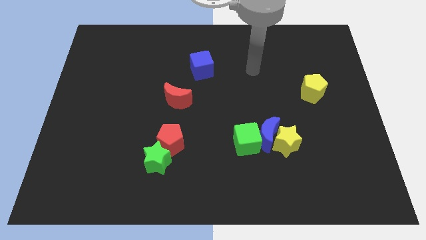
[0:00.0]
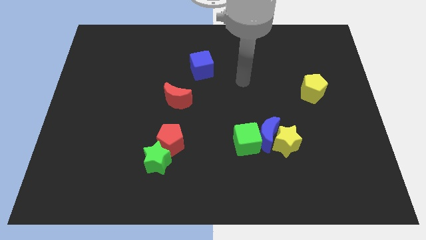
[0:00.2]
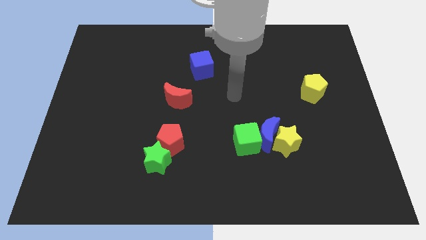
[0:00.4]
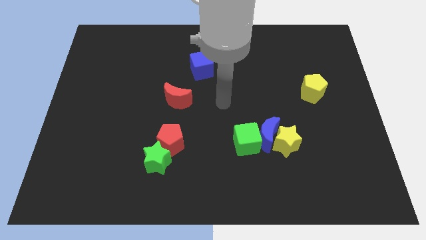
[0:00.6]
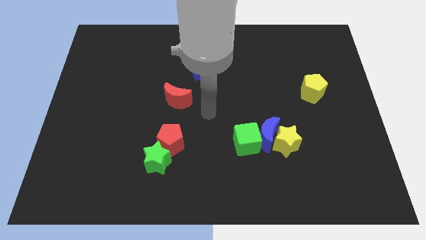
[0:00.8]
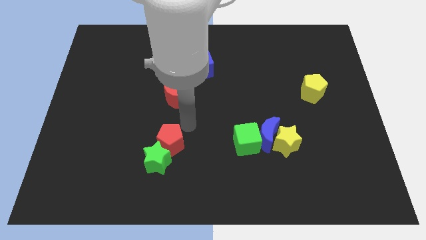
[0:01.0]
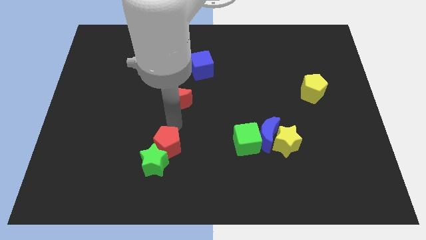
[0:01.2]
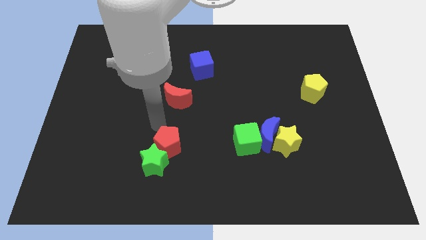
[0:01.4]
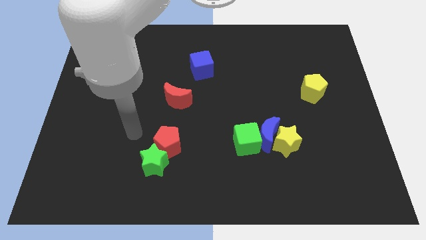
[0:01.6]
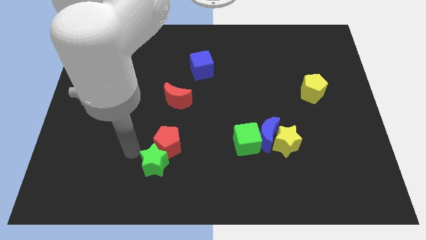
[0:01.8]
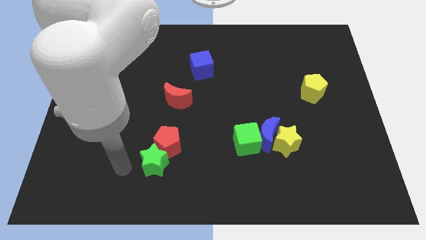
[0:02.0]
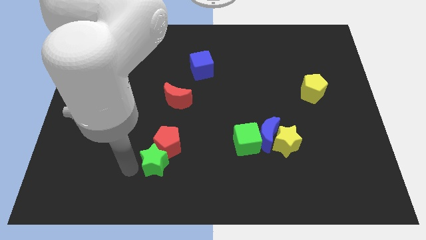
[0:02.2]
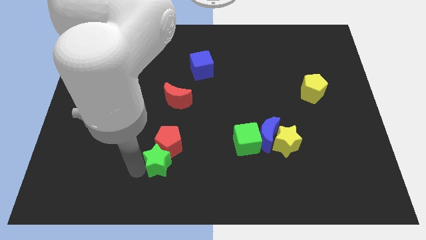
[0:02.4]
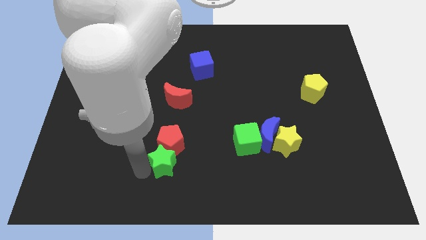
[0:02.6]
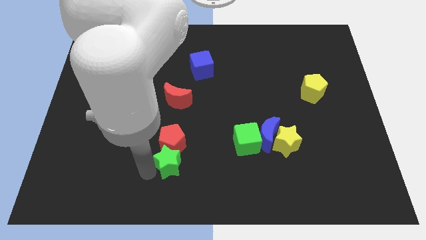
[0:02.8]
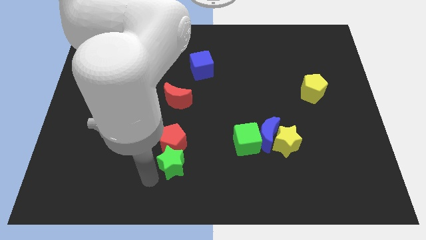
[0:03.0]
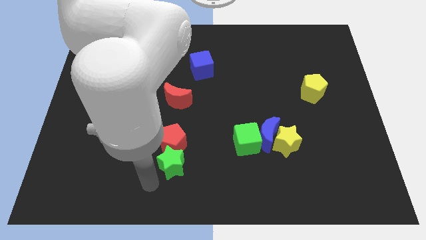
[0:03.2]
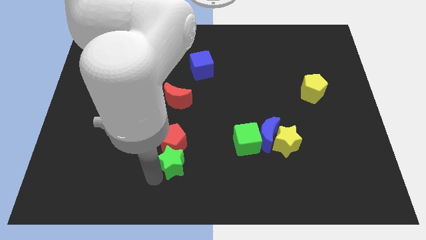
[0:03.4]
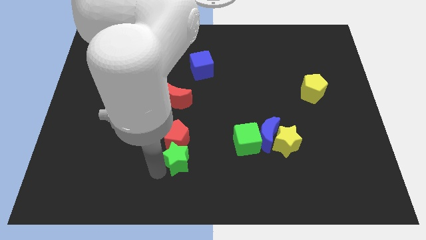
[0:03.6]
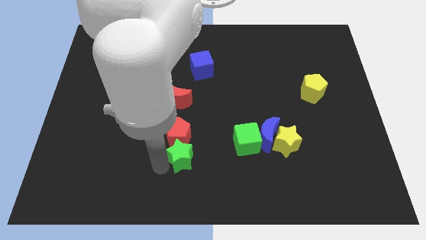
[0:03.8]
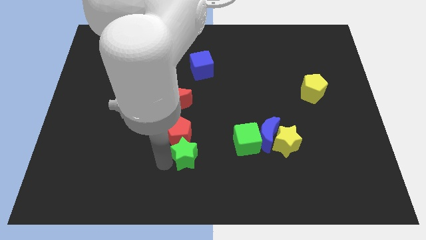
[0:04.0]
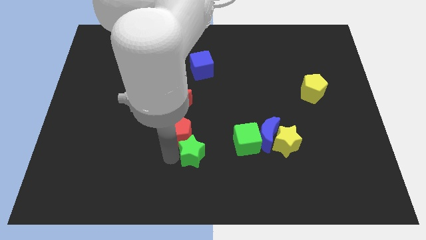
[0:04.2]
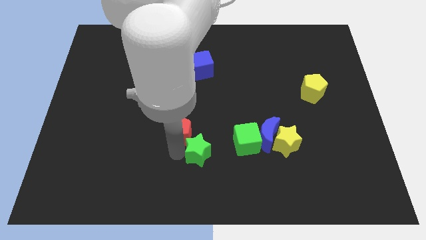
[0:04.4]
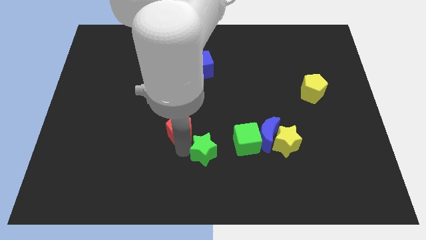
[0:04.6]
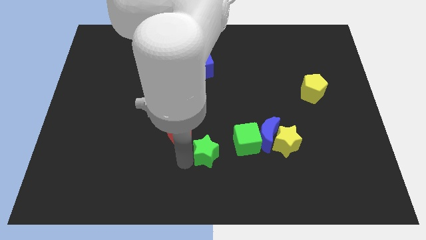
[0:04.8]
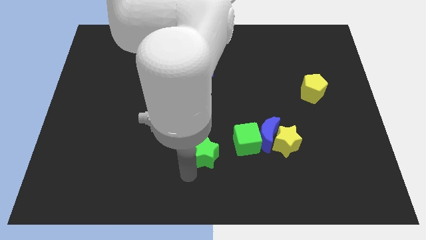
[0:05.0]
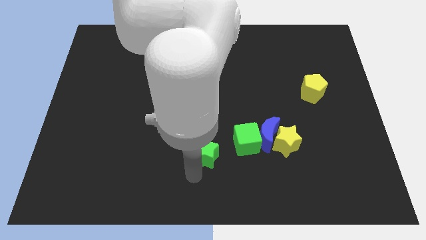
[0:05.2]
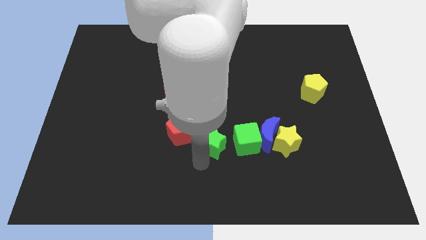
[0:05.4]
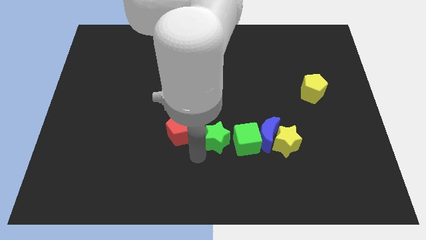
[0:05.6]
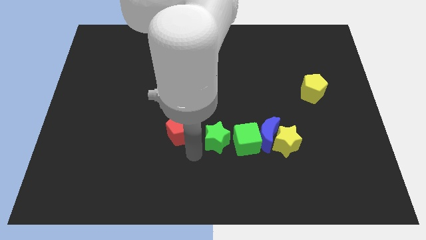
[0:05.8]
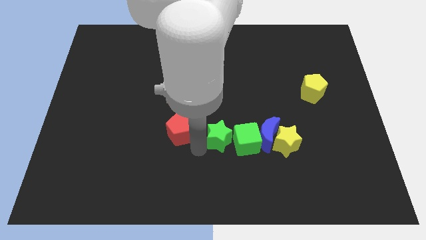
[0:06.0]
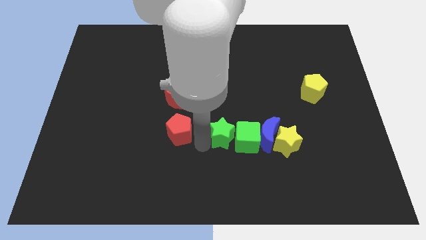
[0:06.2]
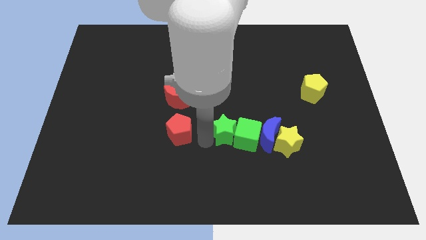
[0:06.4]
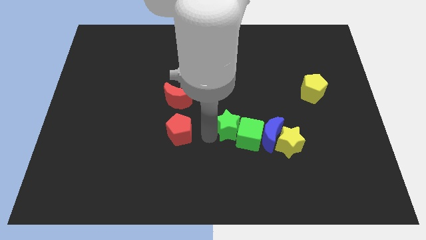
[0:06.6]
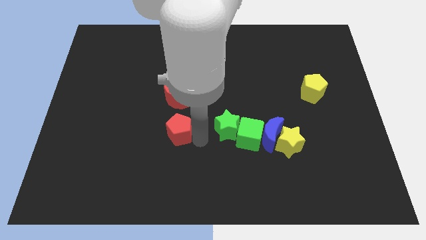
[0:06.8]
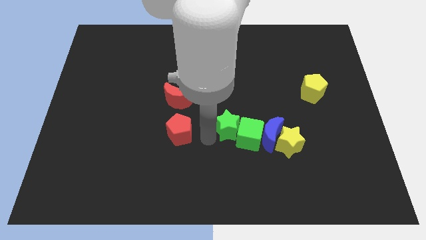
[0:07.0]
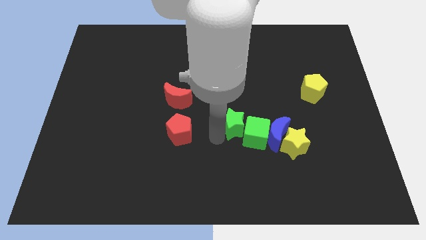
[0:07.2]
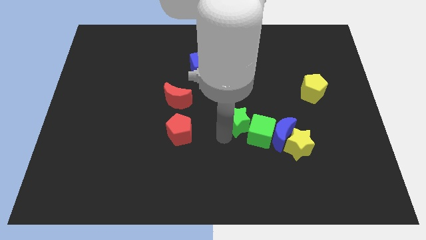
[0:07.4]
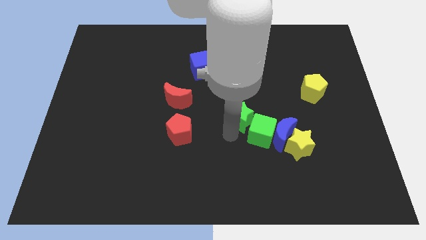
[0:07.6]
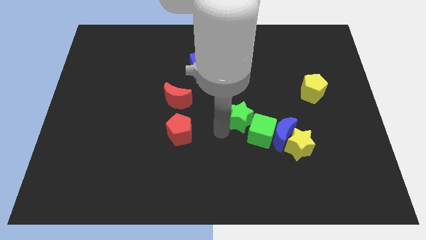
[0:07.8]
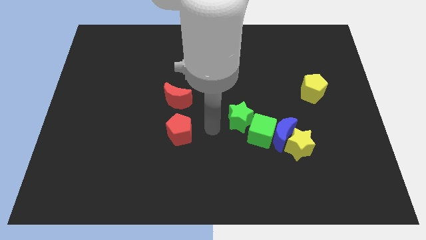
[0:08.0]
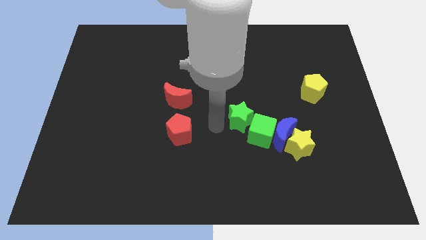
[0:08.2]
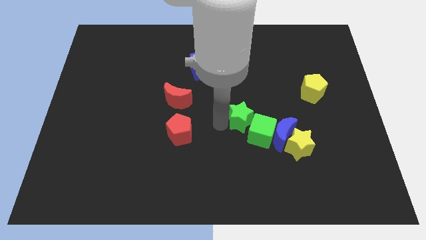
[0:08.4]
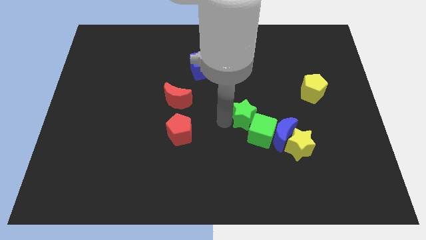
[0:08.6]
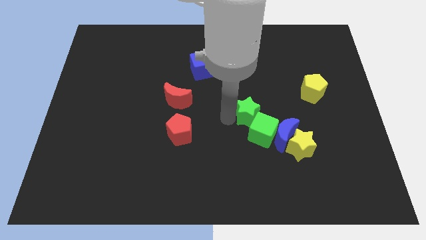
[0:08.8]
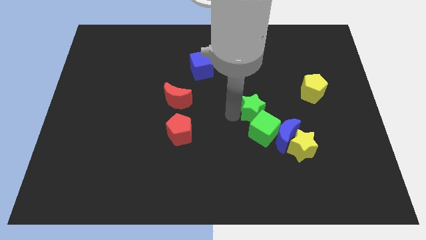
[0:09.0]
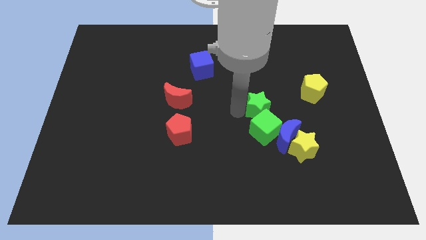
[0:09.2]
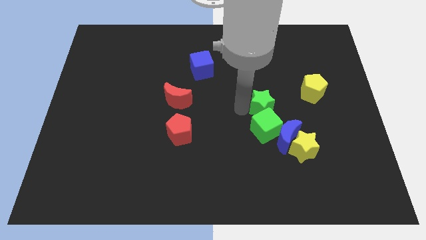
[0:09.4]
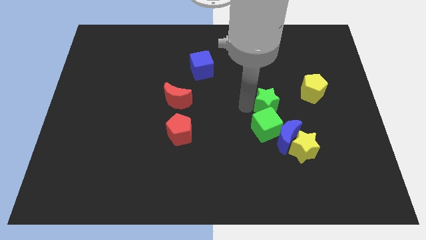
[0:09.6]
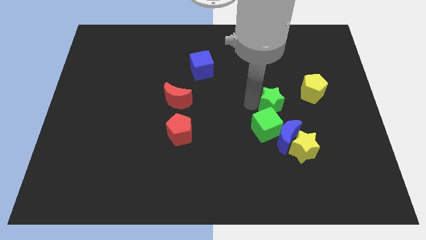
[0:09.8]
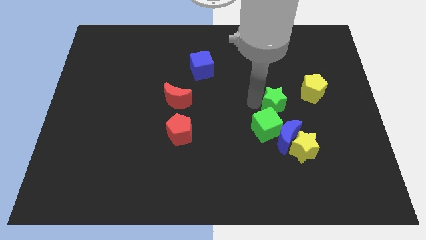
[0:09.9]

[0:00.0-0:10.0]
push the green star to the bottom left side of the yellow pentagon

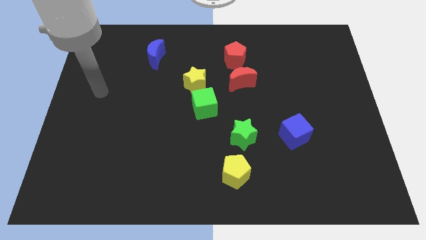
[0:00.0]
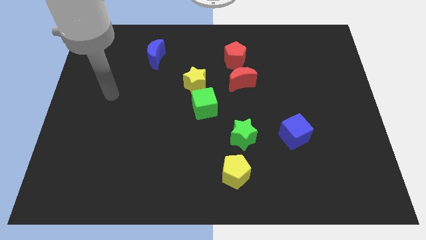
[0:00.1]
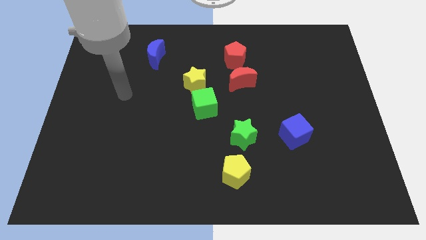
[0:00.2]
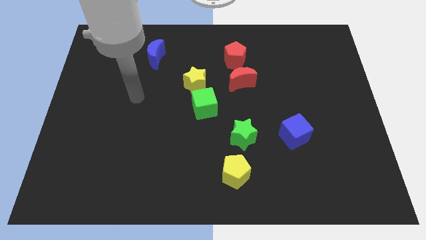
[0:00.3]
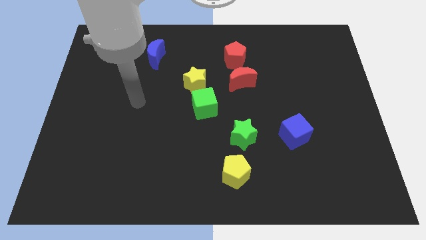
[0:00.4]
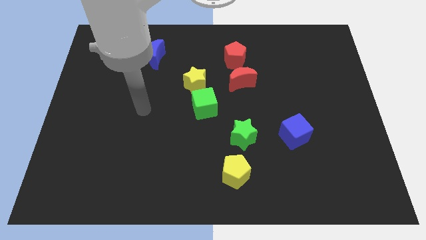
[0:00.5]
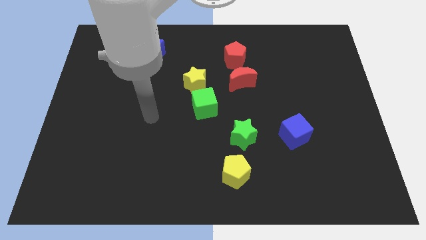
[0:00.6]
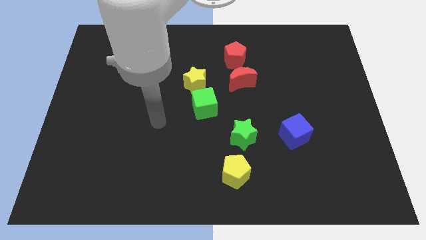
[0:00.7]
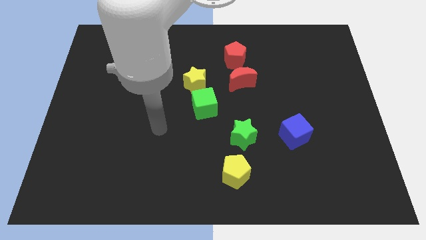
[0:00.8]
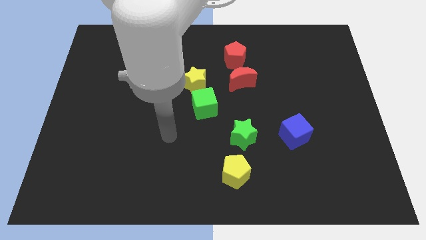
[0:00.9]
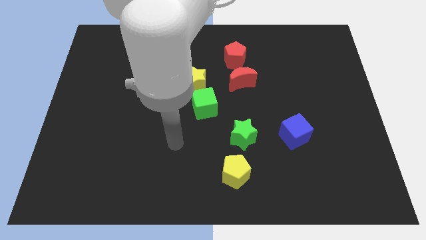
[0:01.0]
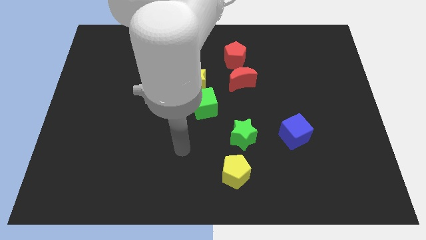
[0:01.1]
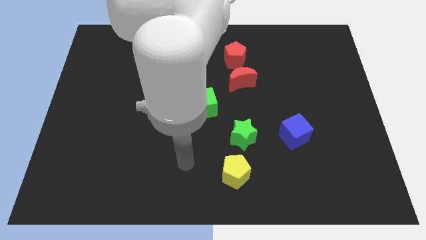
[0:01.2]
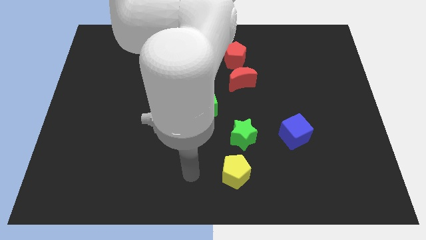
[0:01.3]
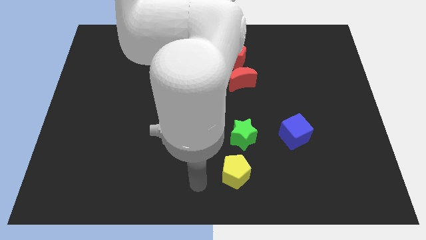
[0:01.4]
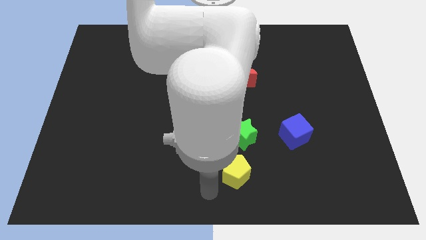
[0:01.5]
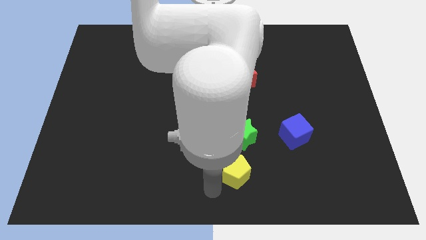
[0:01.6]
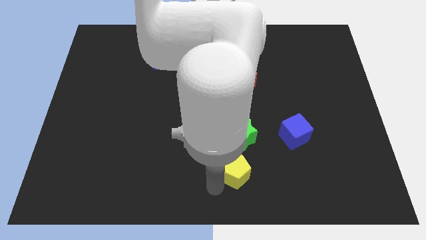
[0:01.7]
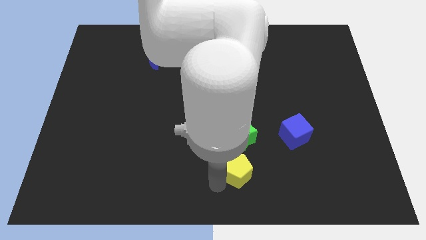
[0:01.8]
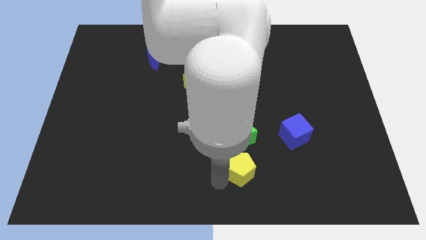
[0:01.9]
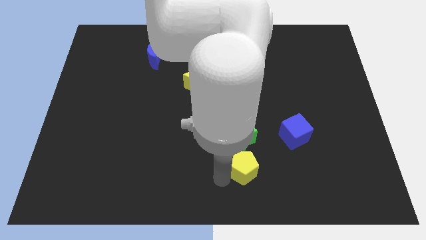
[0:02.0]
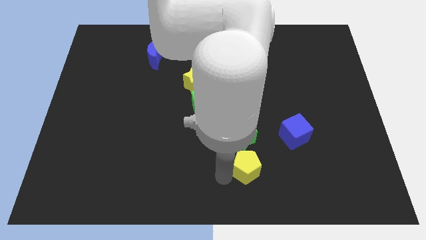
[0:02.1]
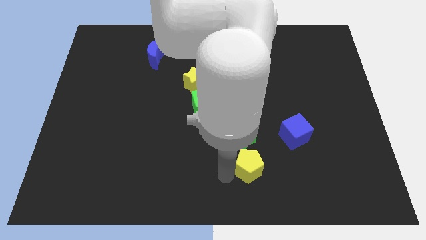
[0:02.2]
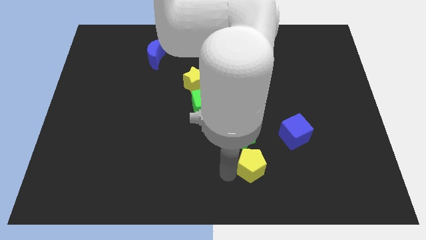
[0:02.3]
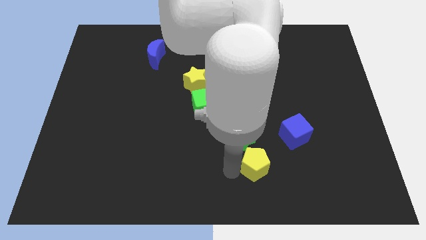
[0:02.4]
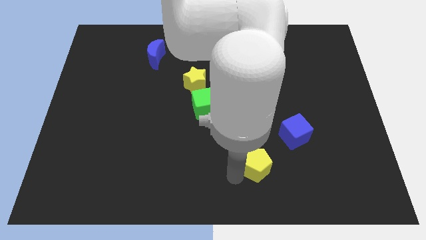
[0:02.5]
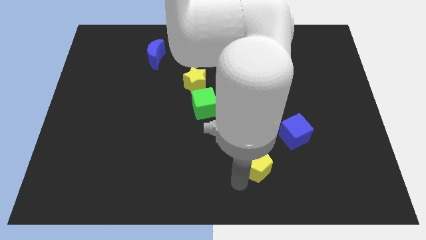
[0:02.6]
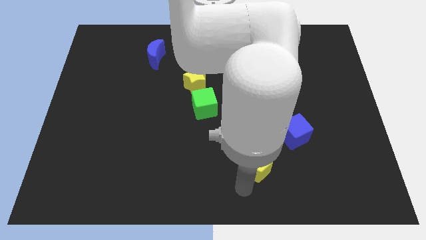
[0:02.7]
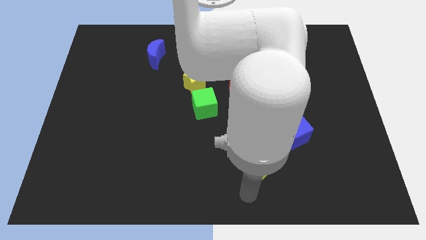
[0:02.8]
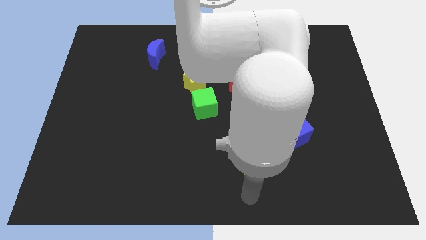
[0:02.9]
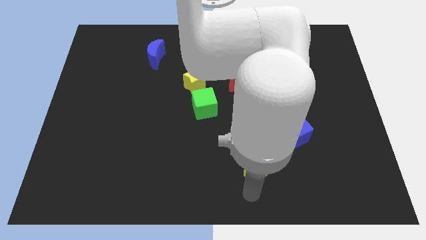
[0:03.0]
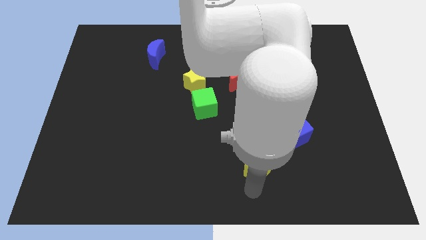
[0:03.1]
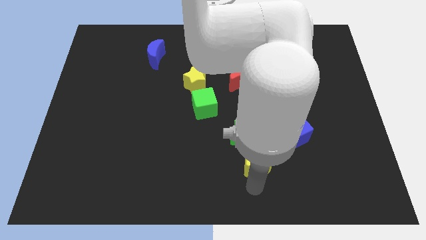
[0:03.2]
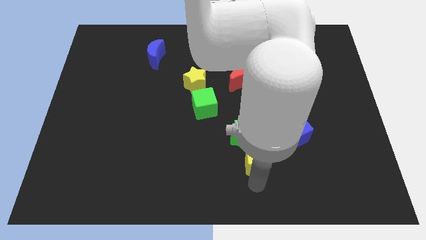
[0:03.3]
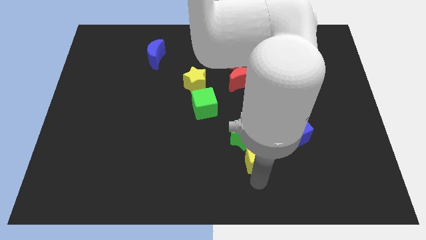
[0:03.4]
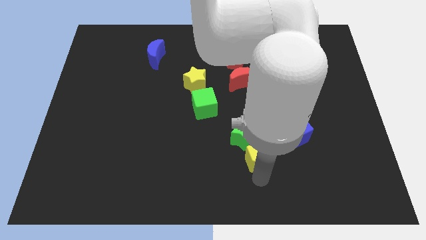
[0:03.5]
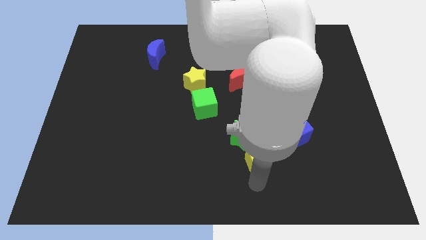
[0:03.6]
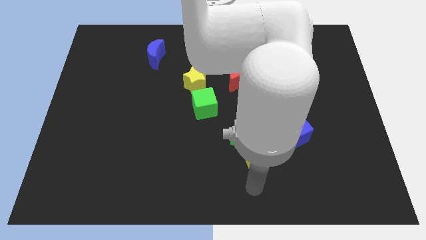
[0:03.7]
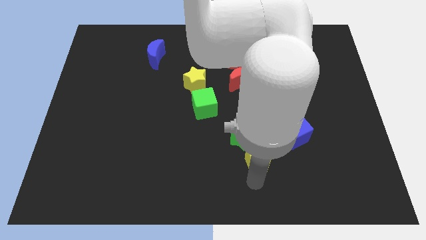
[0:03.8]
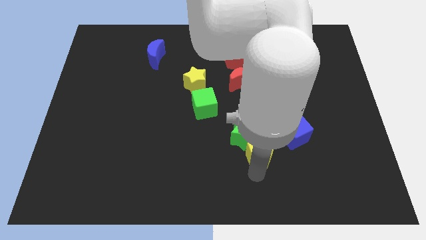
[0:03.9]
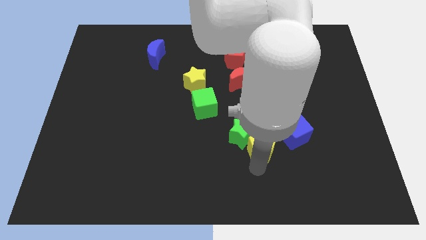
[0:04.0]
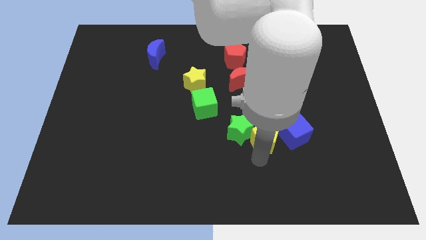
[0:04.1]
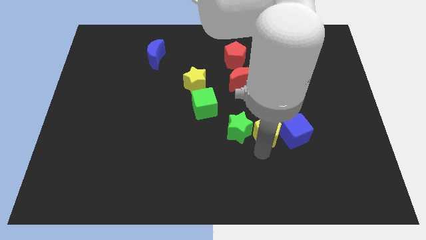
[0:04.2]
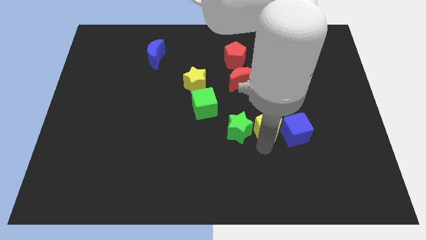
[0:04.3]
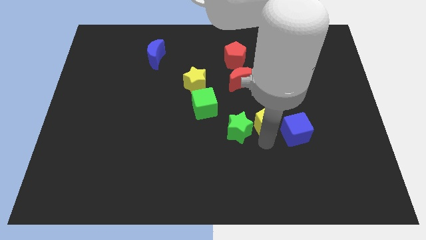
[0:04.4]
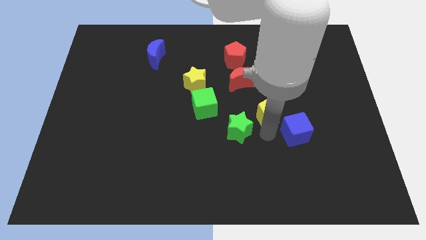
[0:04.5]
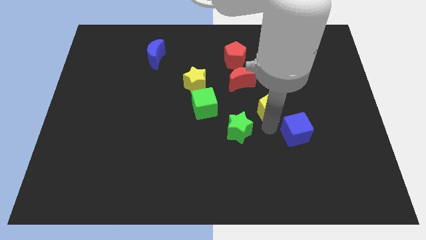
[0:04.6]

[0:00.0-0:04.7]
move the yellow pentagon to the bottom right of the red moon
